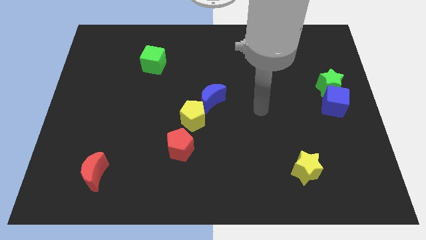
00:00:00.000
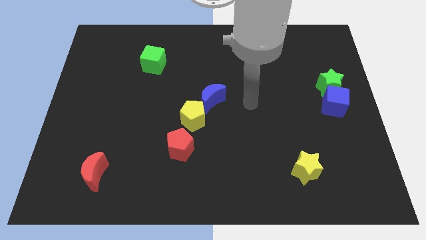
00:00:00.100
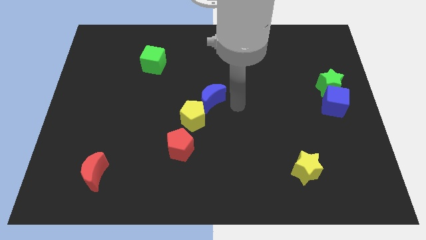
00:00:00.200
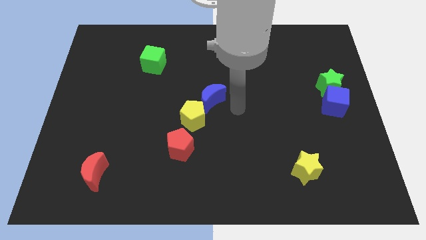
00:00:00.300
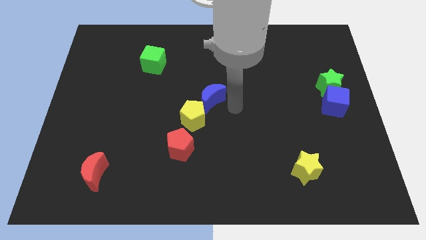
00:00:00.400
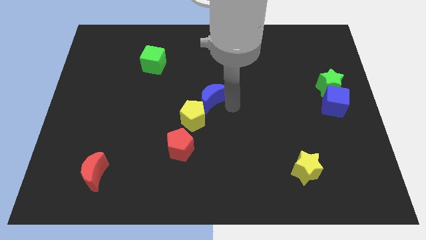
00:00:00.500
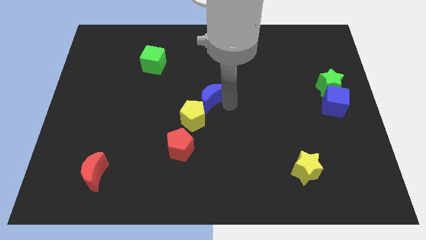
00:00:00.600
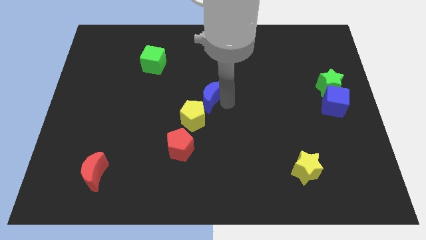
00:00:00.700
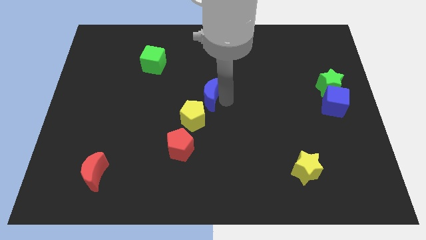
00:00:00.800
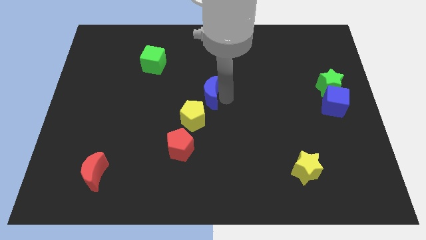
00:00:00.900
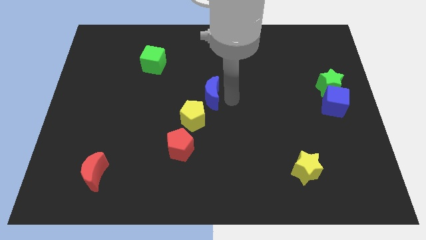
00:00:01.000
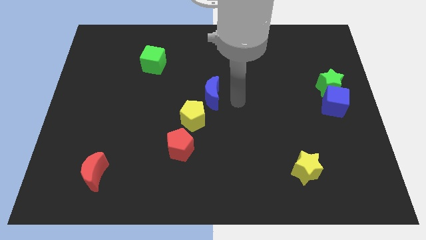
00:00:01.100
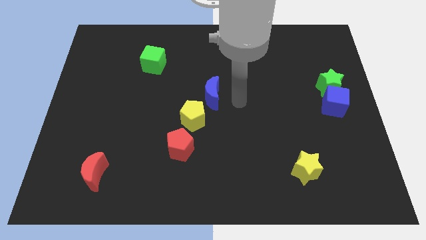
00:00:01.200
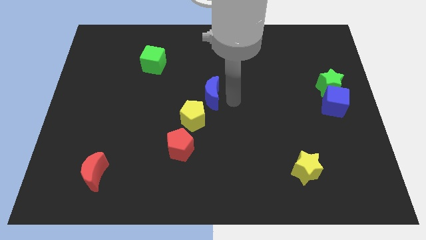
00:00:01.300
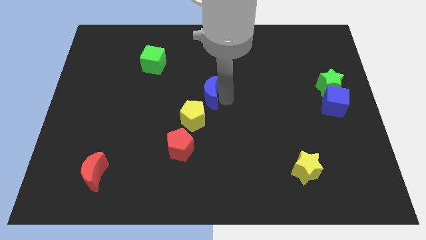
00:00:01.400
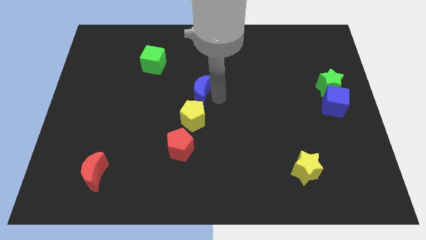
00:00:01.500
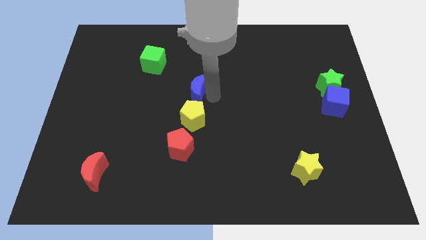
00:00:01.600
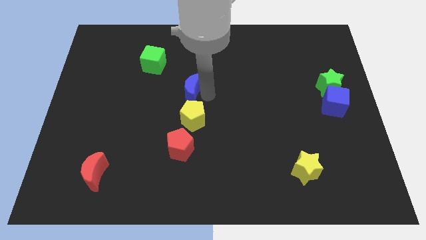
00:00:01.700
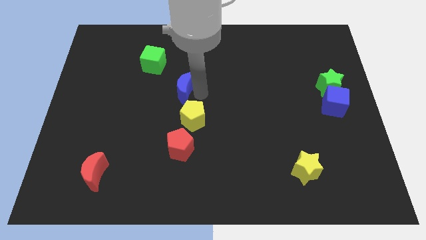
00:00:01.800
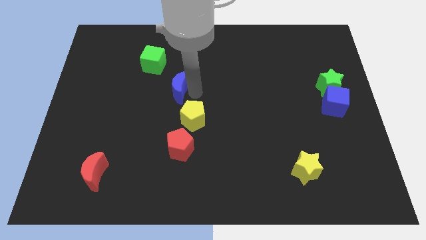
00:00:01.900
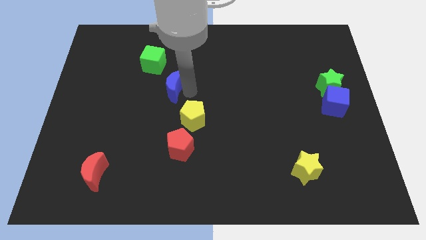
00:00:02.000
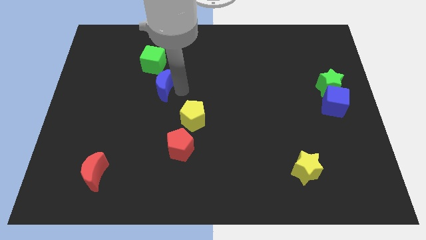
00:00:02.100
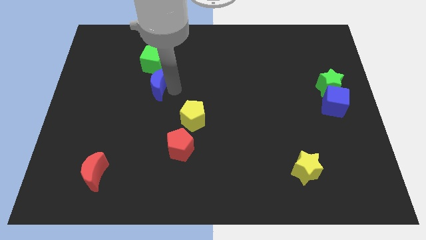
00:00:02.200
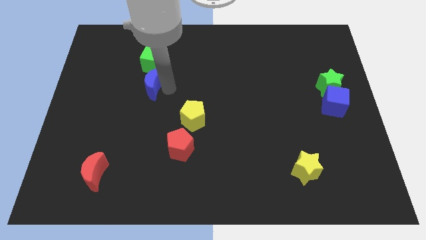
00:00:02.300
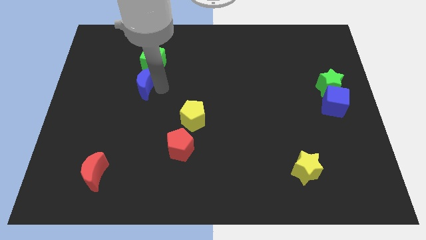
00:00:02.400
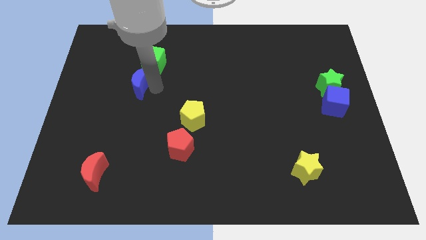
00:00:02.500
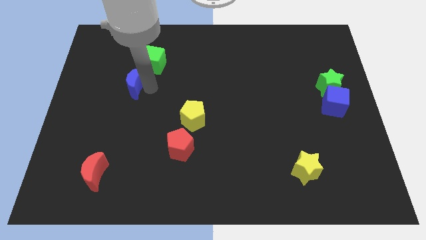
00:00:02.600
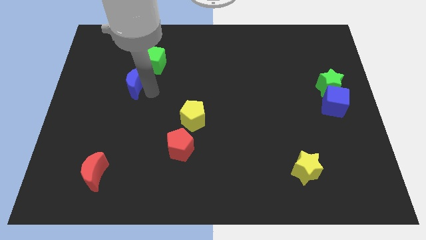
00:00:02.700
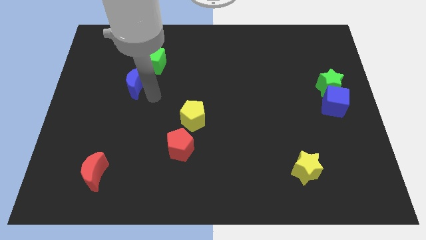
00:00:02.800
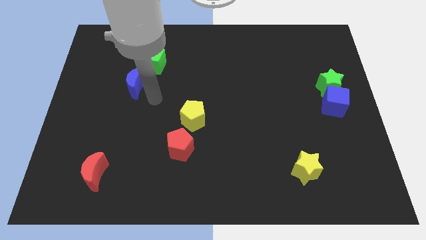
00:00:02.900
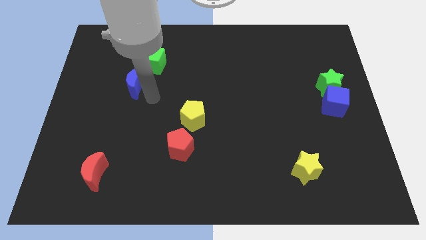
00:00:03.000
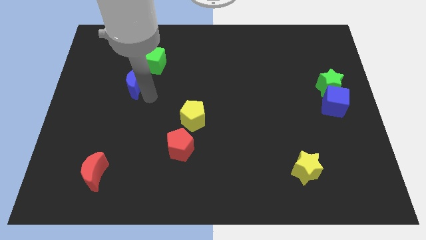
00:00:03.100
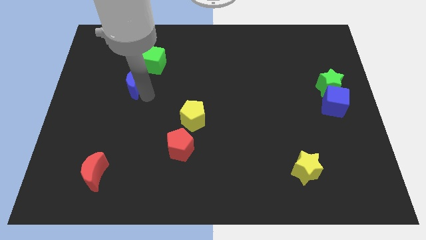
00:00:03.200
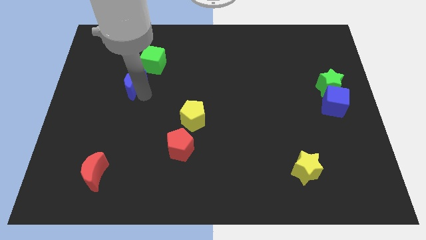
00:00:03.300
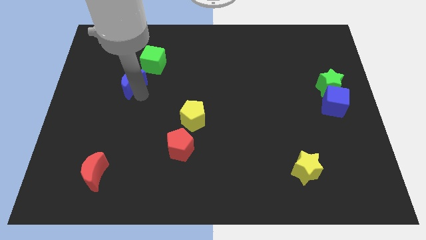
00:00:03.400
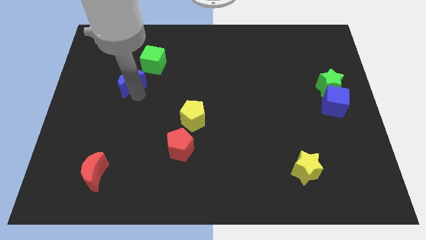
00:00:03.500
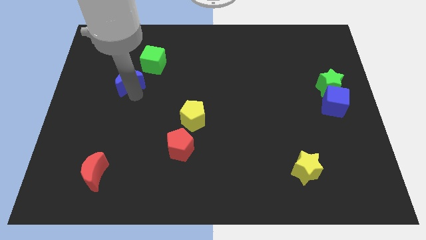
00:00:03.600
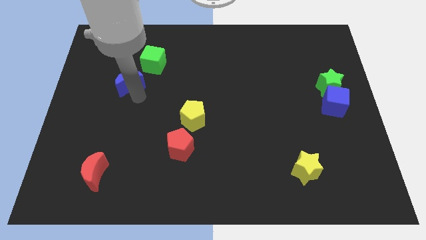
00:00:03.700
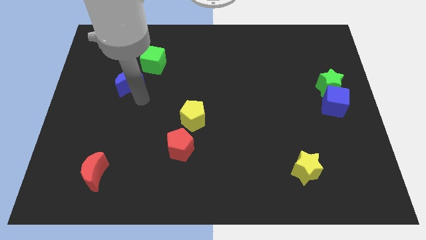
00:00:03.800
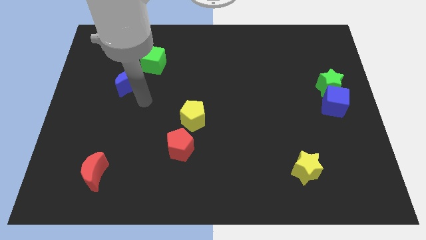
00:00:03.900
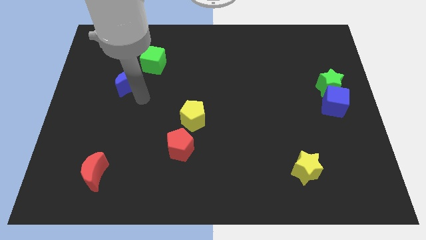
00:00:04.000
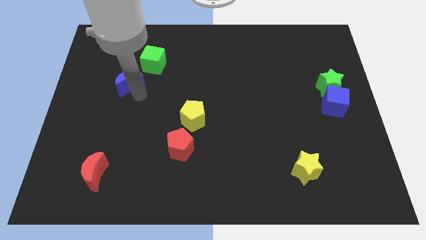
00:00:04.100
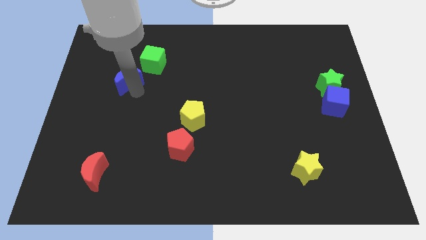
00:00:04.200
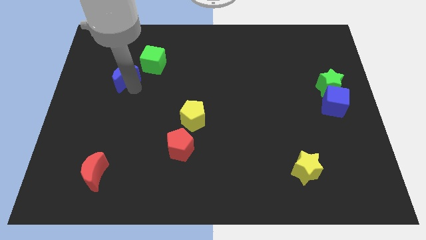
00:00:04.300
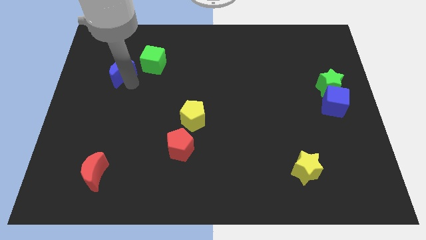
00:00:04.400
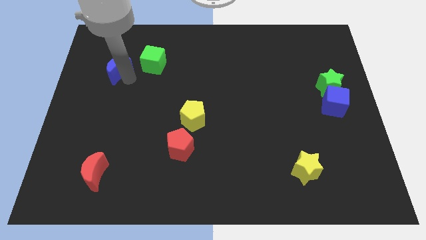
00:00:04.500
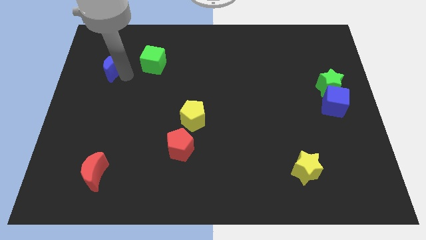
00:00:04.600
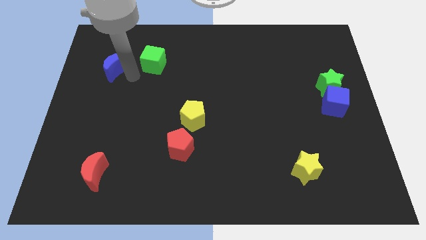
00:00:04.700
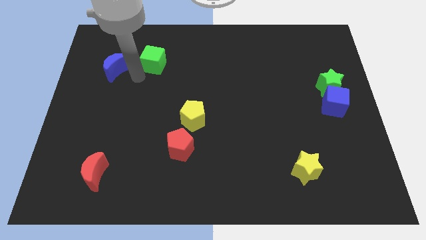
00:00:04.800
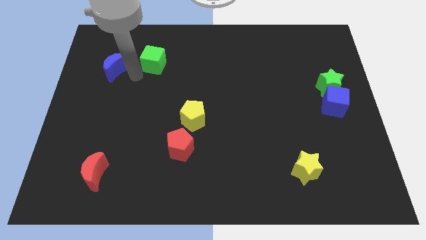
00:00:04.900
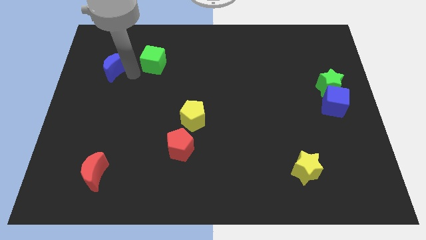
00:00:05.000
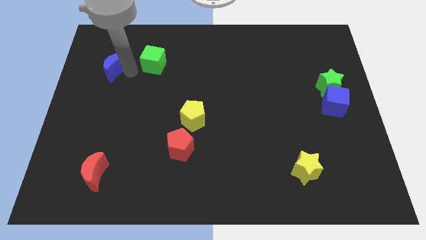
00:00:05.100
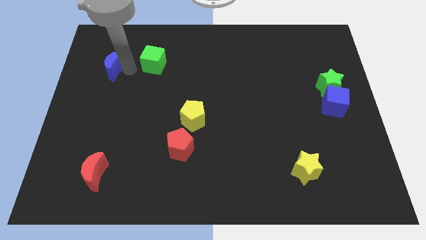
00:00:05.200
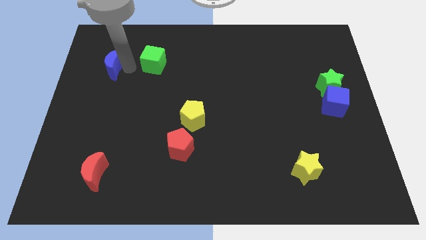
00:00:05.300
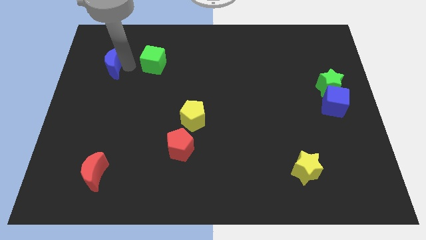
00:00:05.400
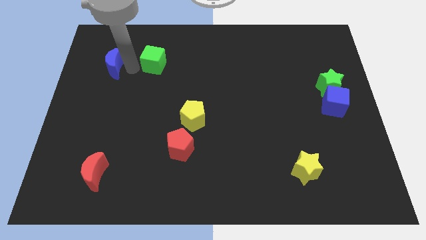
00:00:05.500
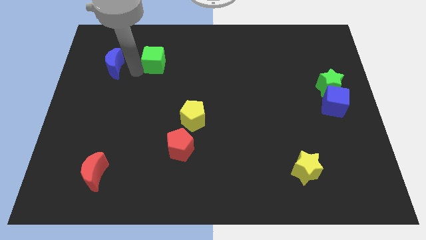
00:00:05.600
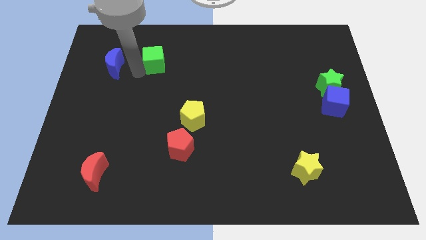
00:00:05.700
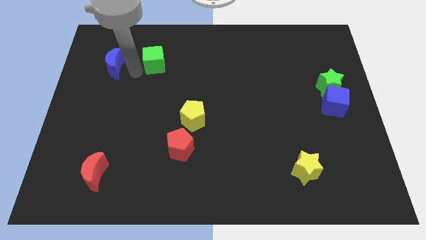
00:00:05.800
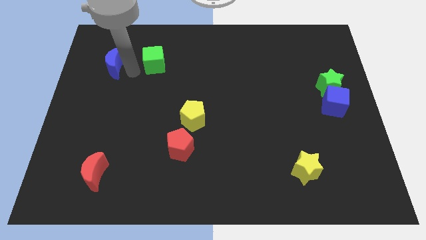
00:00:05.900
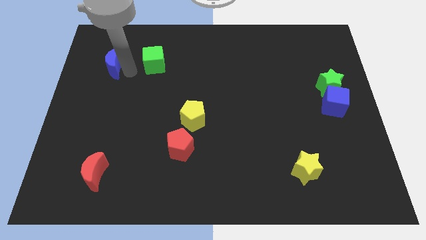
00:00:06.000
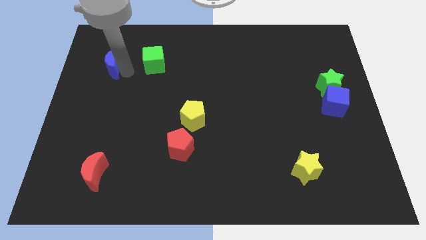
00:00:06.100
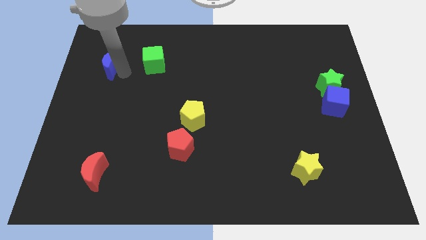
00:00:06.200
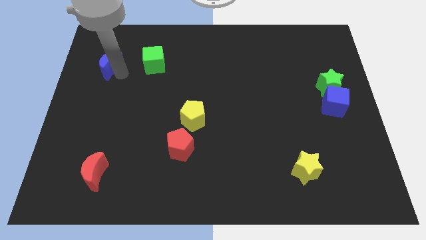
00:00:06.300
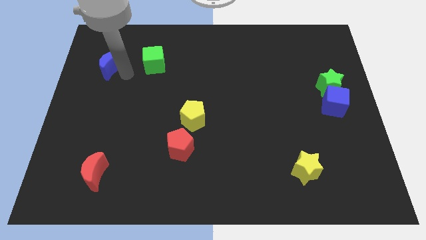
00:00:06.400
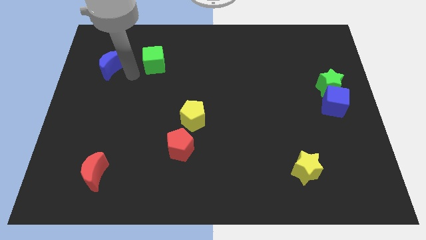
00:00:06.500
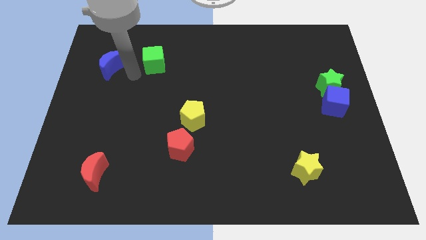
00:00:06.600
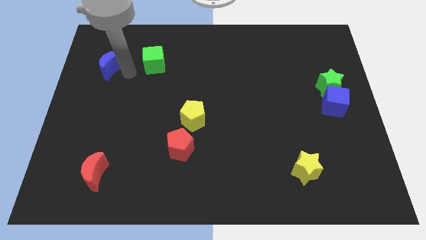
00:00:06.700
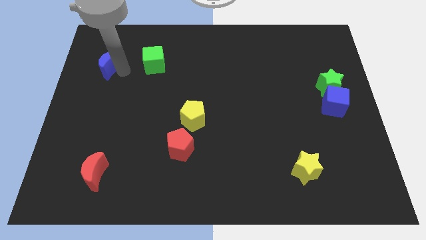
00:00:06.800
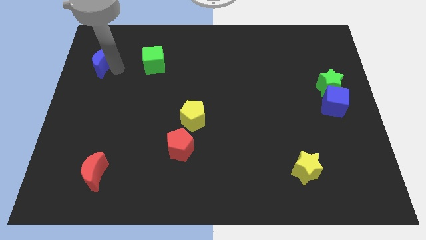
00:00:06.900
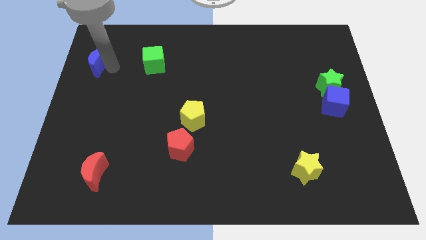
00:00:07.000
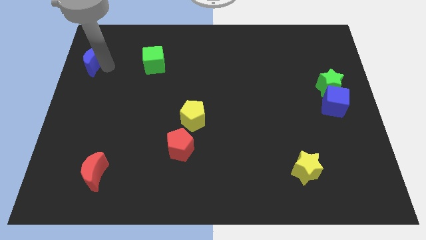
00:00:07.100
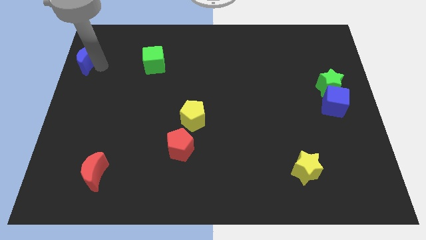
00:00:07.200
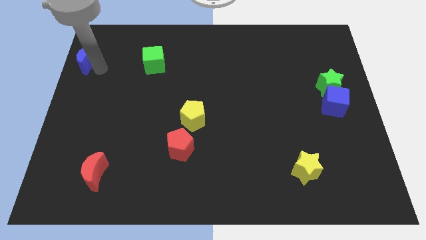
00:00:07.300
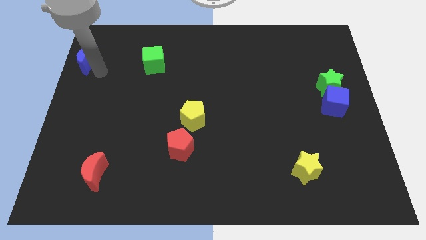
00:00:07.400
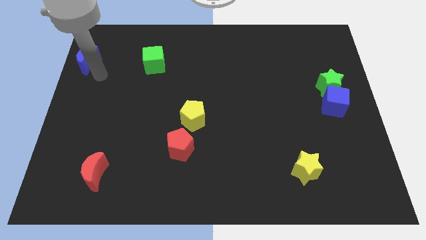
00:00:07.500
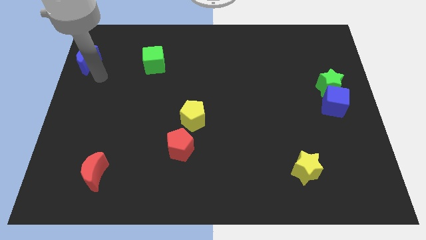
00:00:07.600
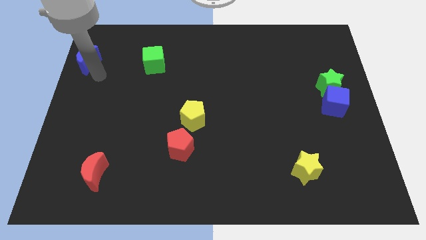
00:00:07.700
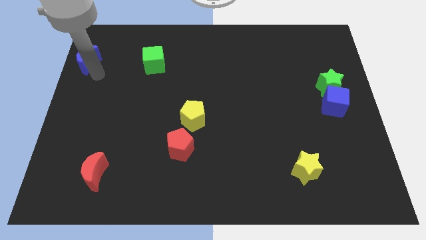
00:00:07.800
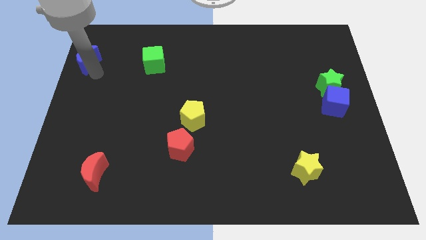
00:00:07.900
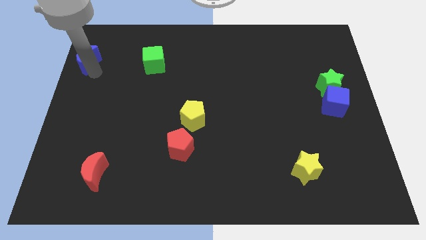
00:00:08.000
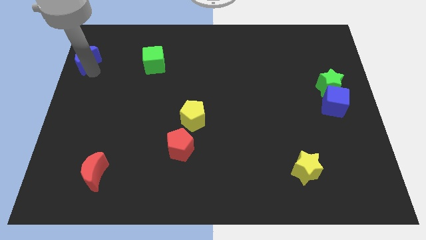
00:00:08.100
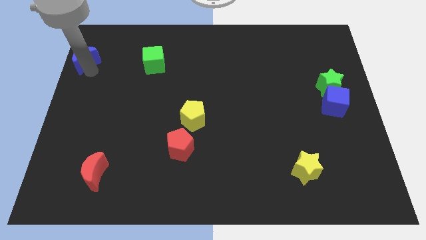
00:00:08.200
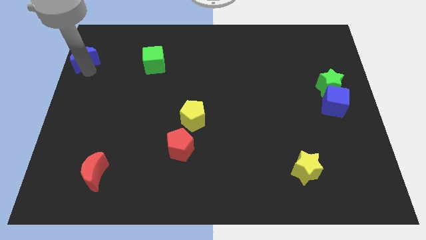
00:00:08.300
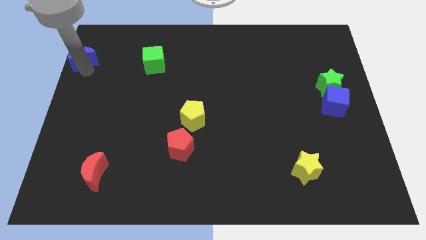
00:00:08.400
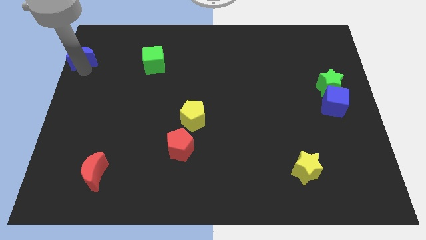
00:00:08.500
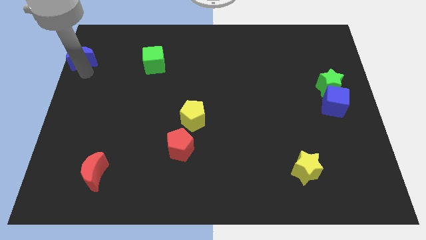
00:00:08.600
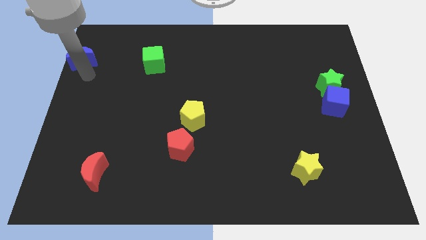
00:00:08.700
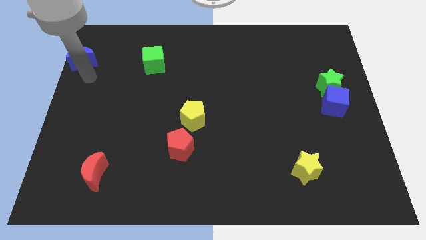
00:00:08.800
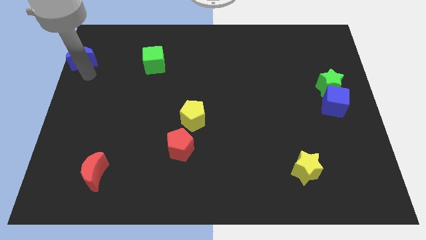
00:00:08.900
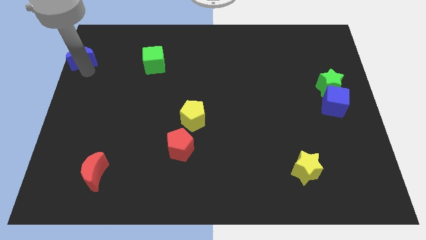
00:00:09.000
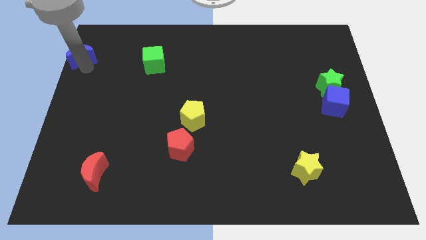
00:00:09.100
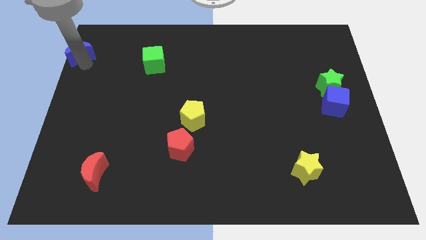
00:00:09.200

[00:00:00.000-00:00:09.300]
push the blue moon to the top left
